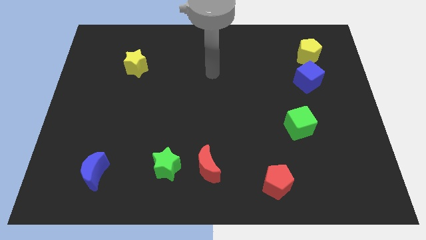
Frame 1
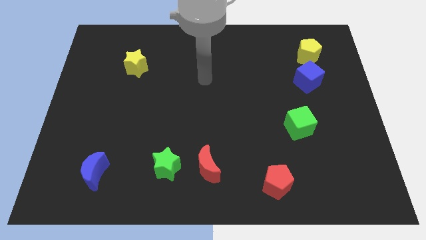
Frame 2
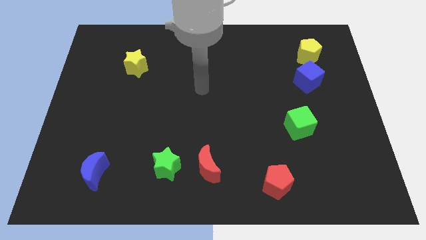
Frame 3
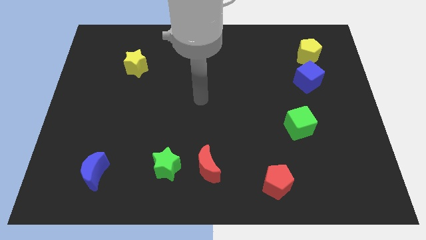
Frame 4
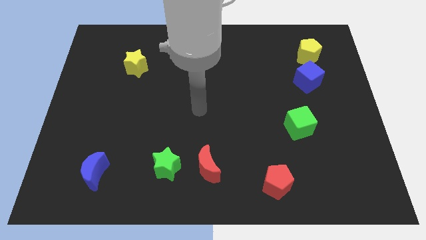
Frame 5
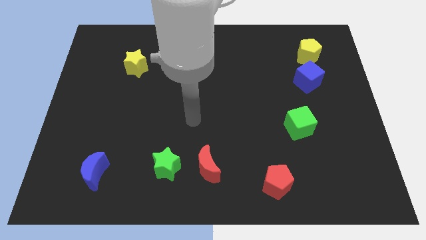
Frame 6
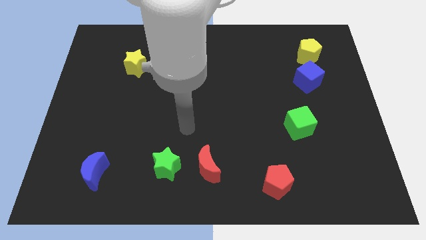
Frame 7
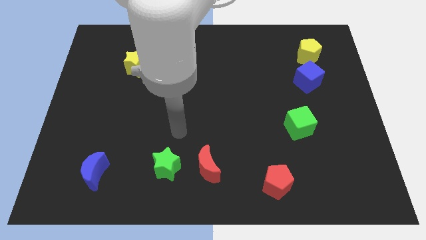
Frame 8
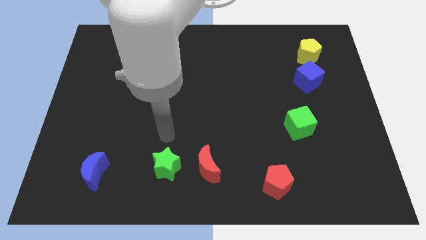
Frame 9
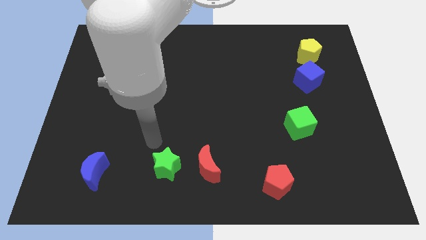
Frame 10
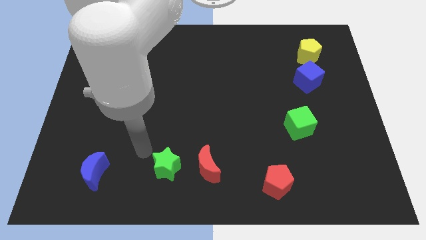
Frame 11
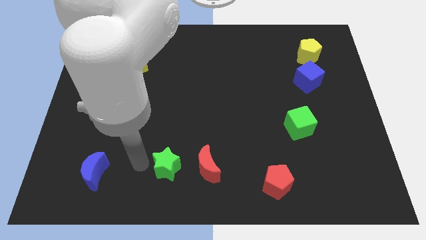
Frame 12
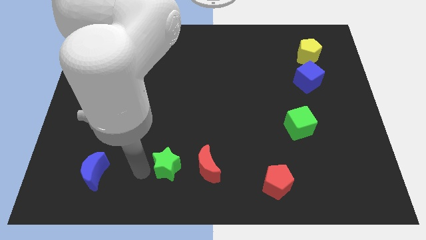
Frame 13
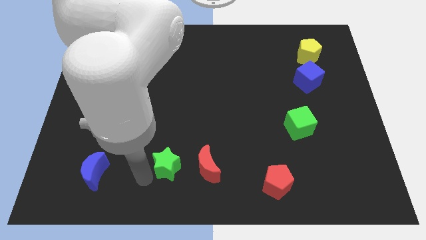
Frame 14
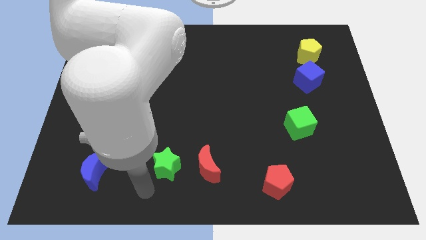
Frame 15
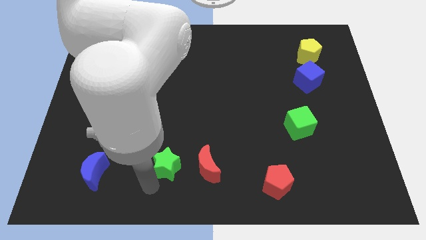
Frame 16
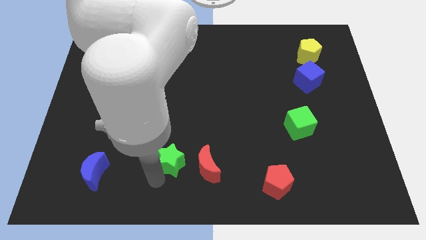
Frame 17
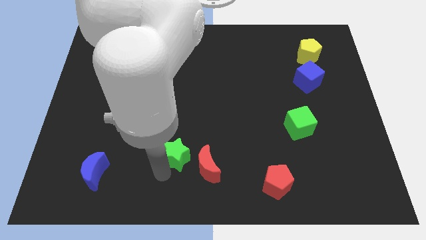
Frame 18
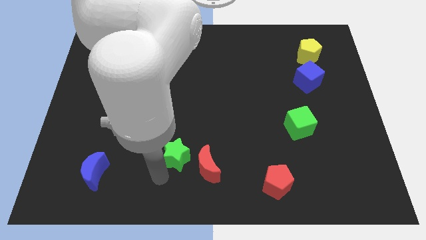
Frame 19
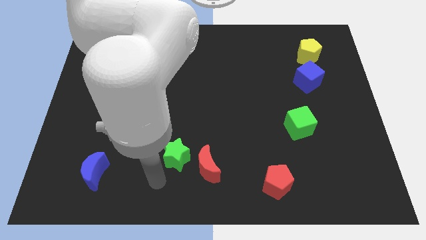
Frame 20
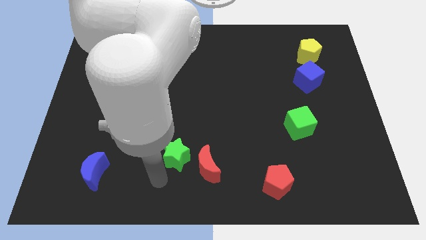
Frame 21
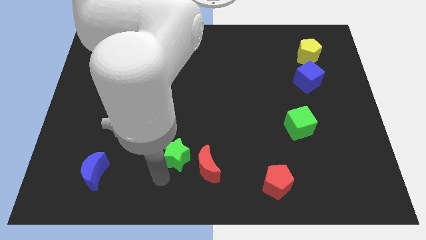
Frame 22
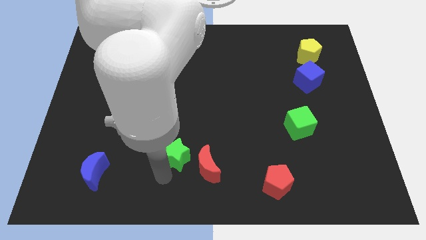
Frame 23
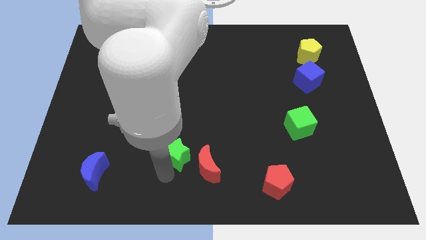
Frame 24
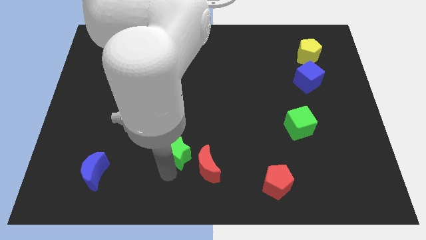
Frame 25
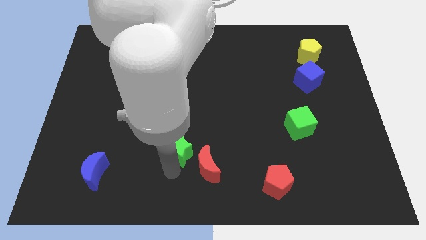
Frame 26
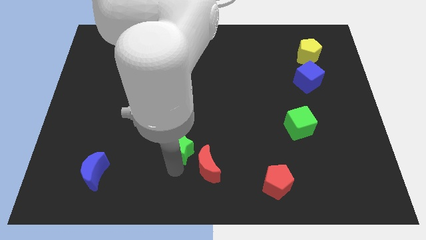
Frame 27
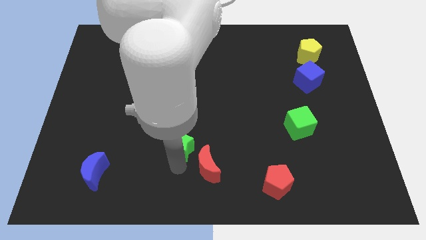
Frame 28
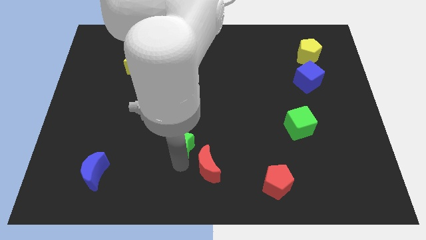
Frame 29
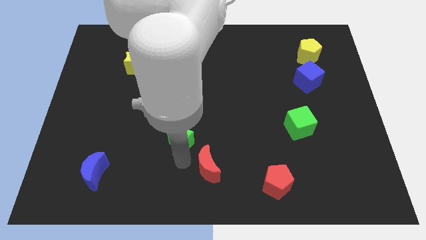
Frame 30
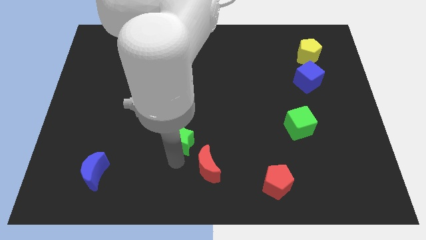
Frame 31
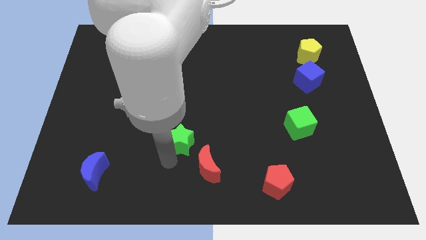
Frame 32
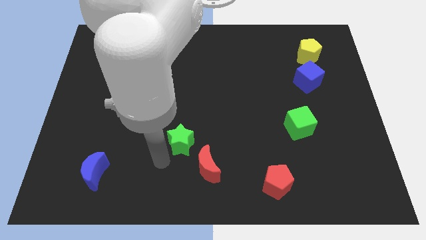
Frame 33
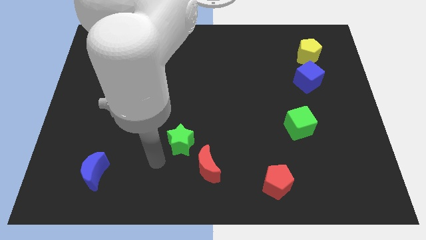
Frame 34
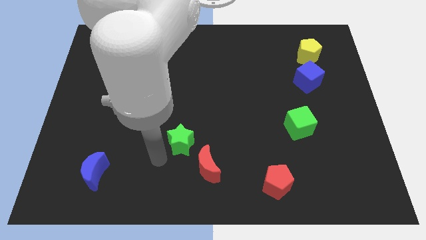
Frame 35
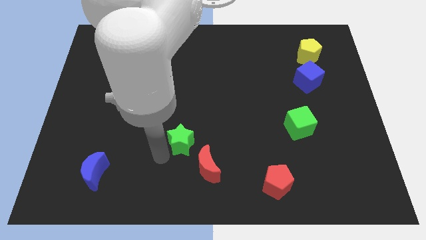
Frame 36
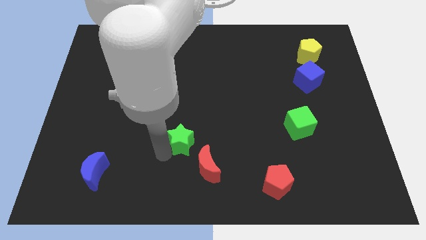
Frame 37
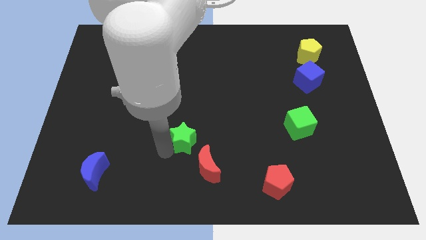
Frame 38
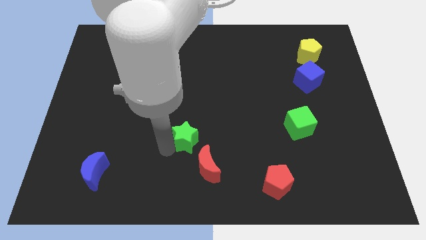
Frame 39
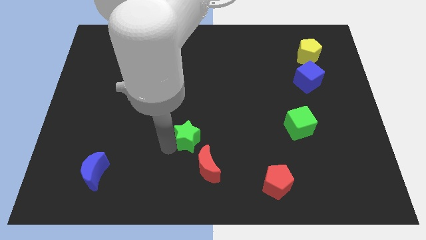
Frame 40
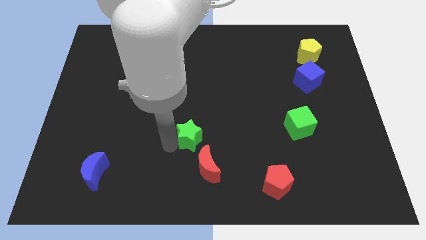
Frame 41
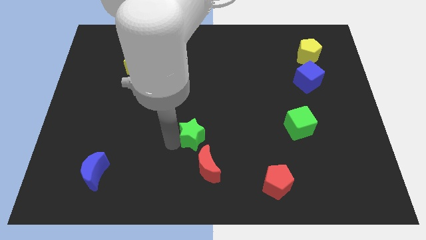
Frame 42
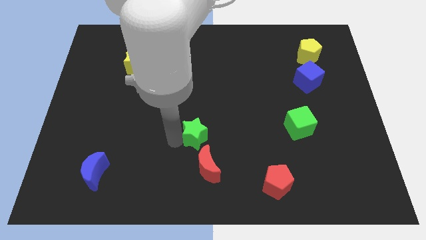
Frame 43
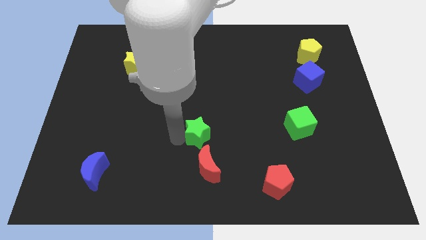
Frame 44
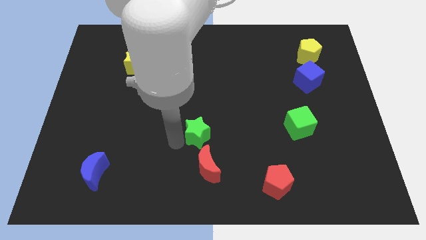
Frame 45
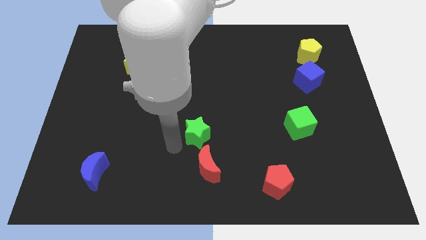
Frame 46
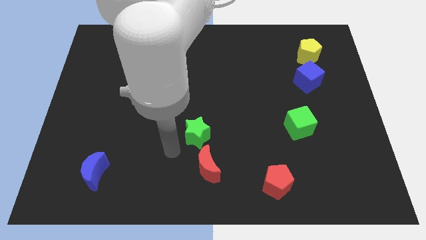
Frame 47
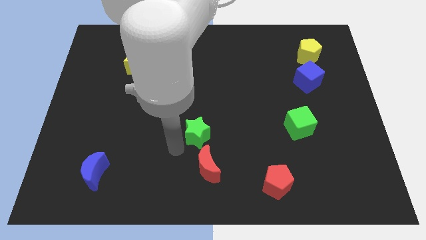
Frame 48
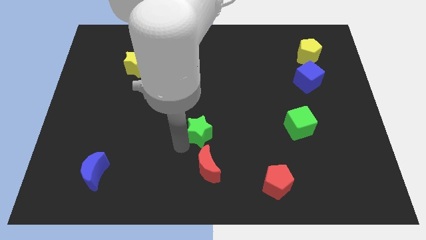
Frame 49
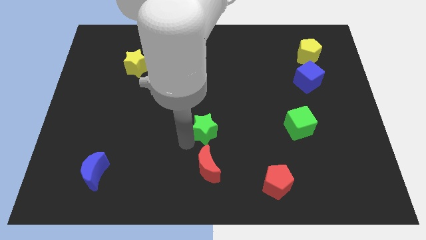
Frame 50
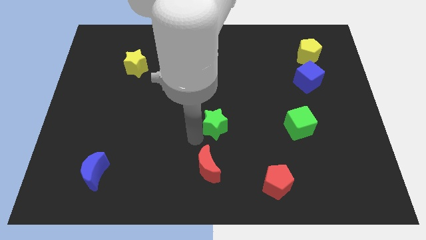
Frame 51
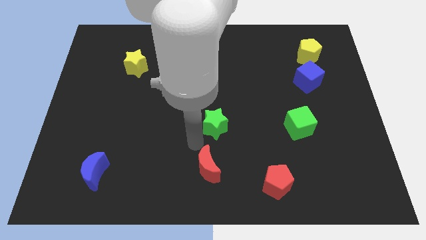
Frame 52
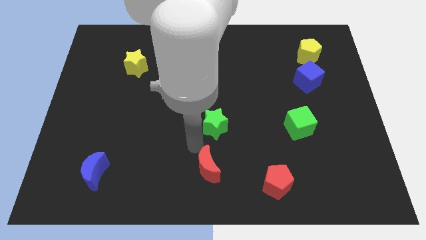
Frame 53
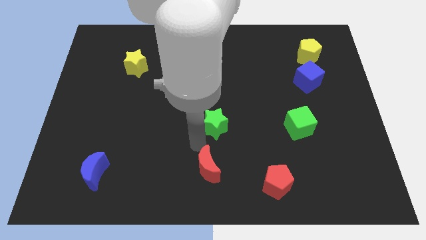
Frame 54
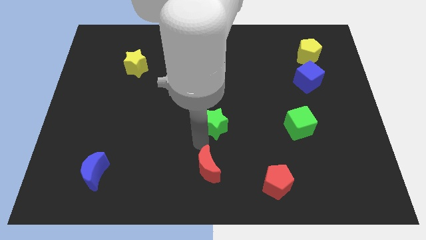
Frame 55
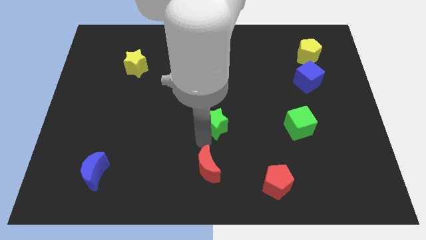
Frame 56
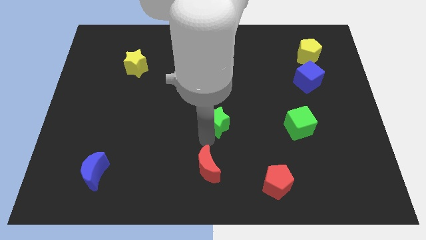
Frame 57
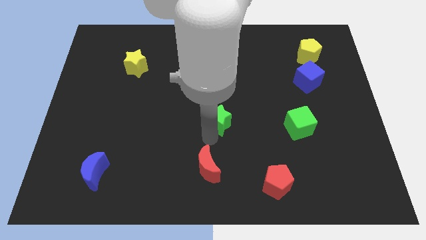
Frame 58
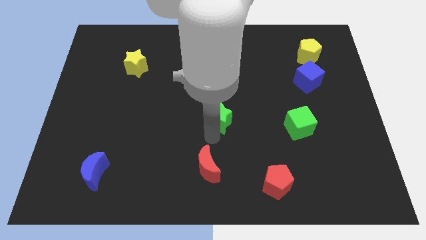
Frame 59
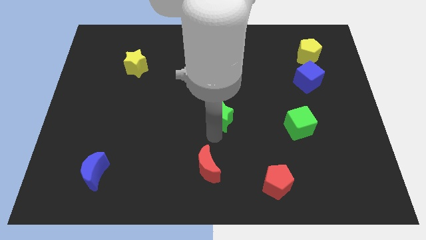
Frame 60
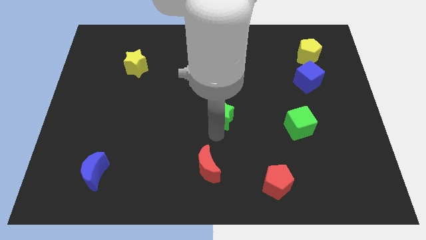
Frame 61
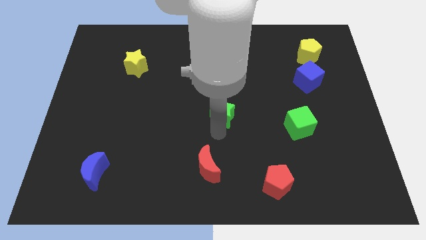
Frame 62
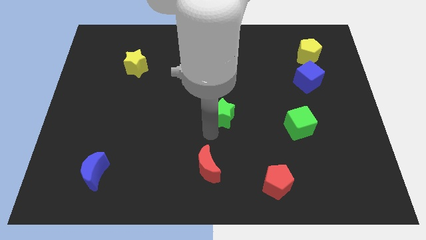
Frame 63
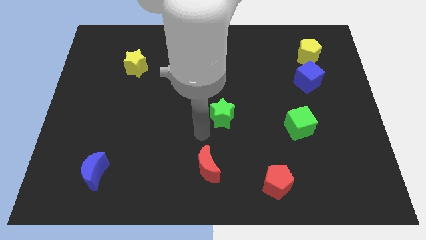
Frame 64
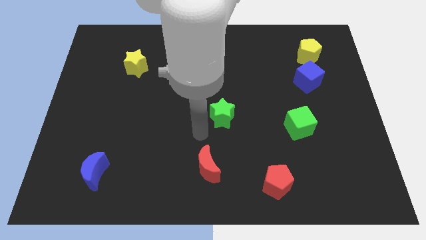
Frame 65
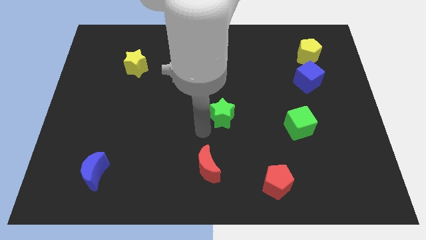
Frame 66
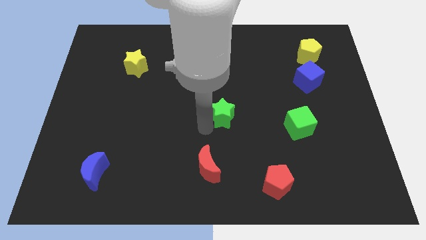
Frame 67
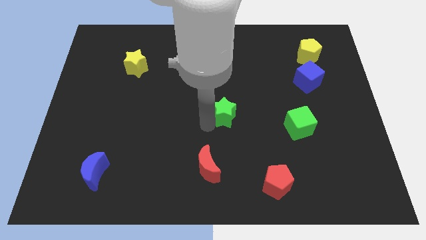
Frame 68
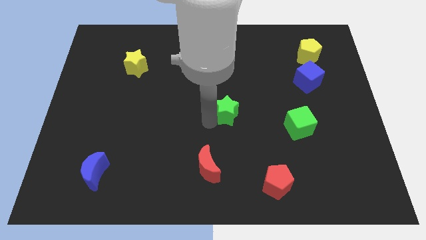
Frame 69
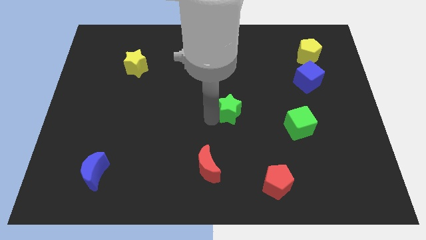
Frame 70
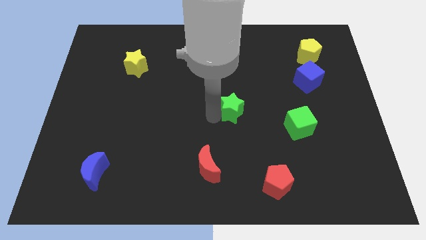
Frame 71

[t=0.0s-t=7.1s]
move the green star diagonally upwards and to the right

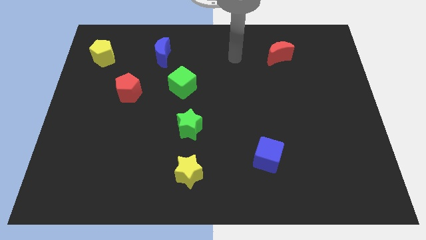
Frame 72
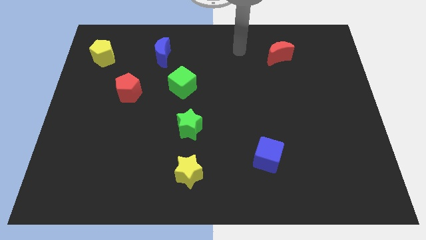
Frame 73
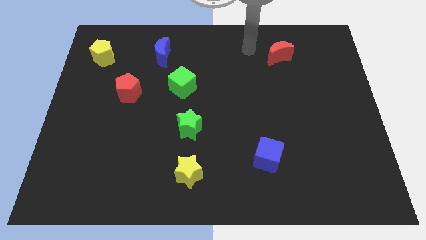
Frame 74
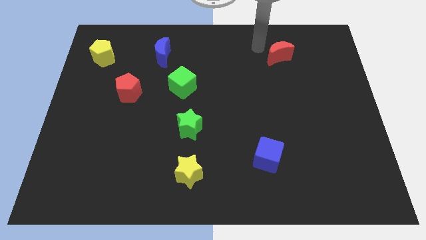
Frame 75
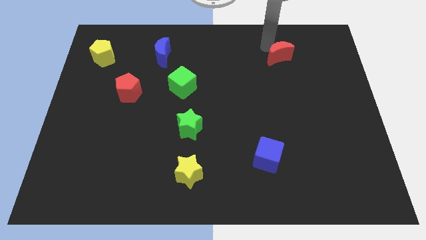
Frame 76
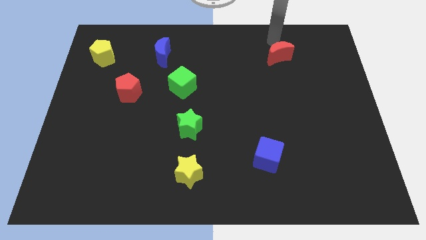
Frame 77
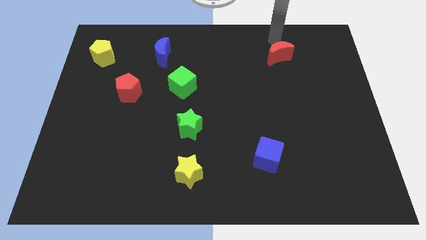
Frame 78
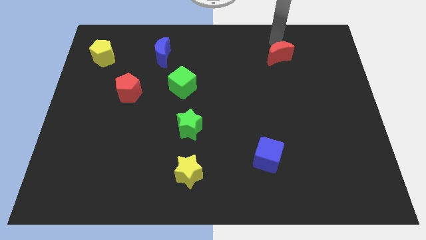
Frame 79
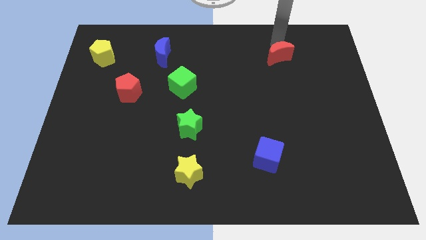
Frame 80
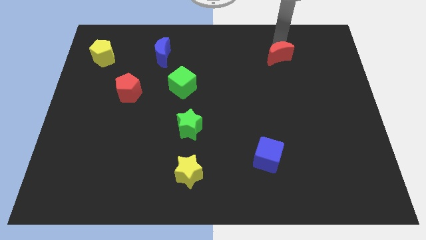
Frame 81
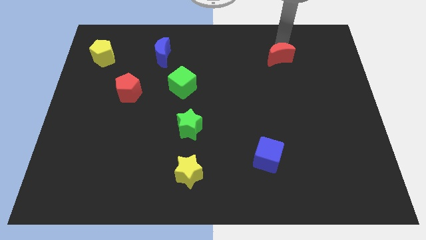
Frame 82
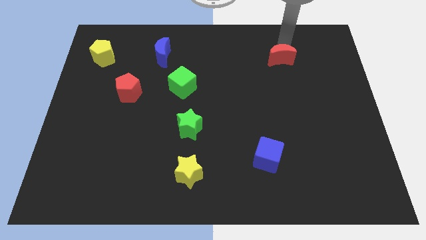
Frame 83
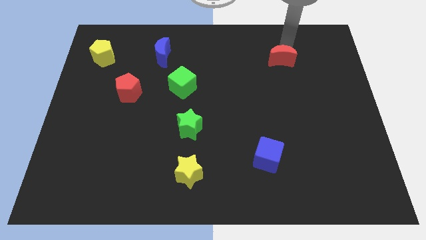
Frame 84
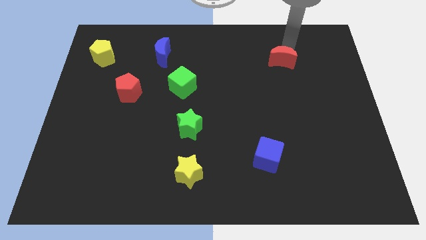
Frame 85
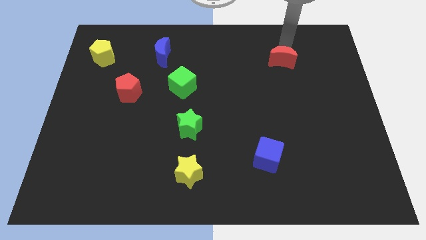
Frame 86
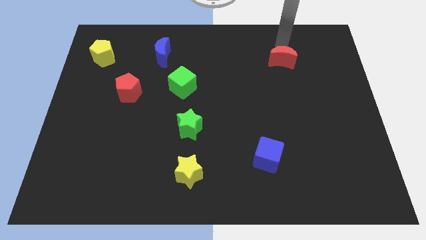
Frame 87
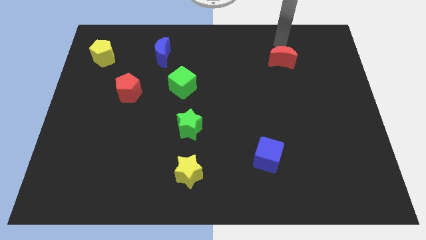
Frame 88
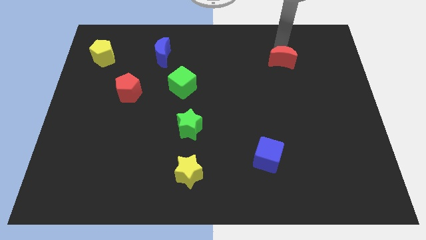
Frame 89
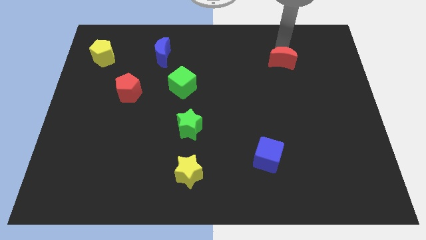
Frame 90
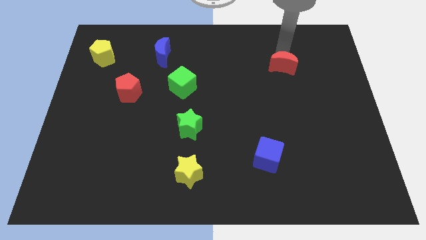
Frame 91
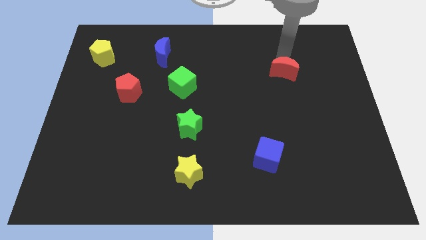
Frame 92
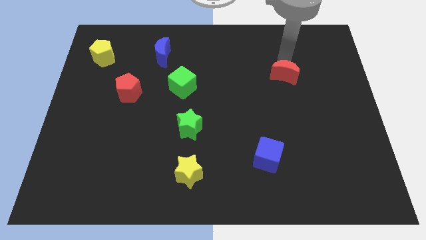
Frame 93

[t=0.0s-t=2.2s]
slightly push the red moon downwards
